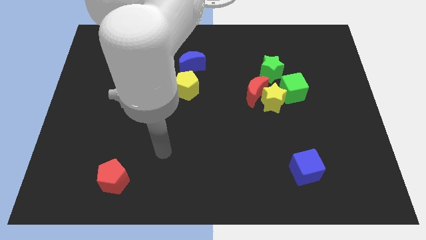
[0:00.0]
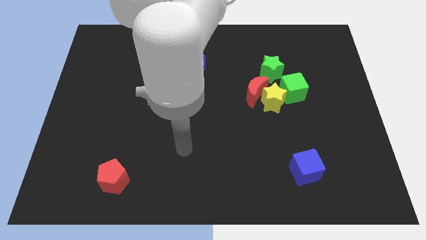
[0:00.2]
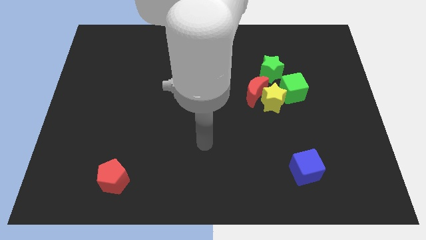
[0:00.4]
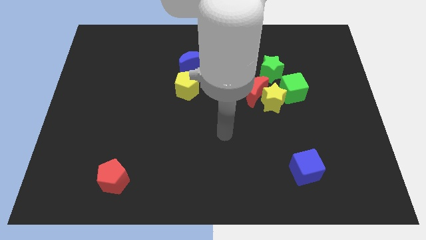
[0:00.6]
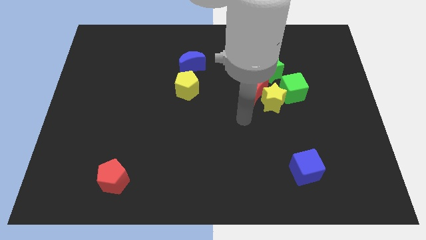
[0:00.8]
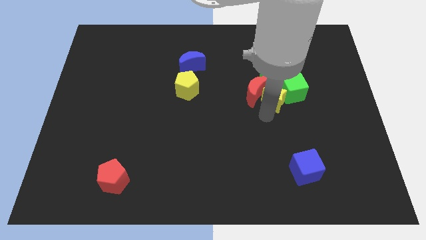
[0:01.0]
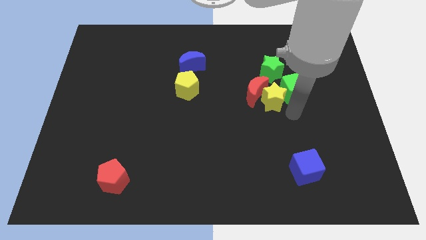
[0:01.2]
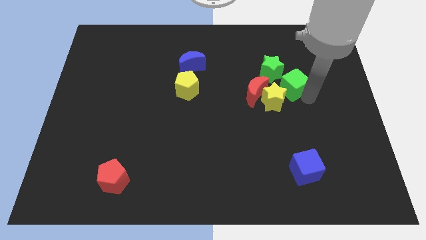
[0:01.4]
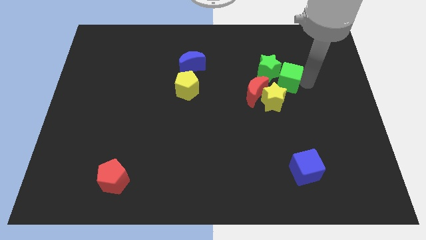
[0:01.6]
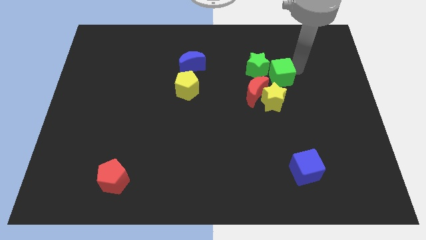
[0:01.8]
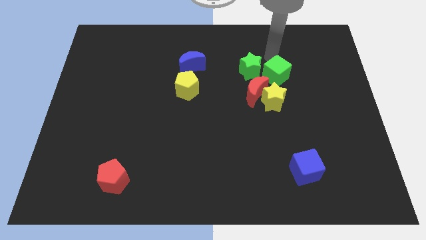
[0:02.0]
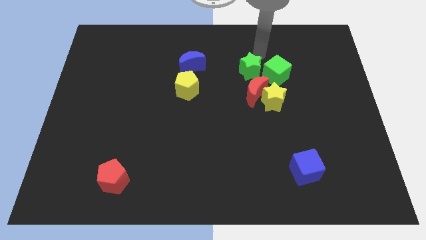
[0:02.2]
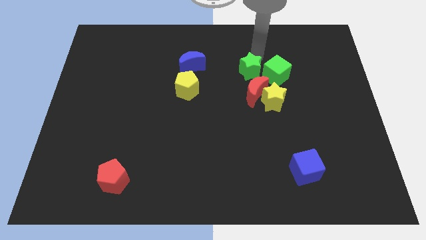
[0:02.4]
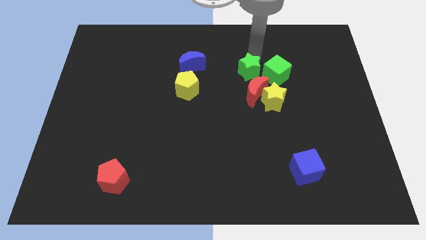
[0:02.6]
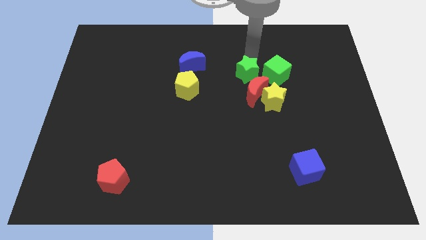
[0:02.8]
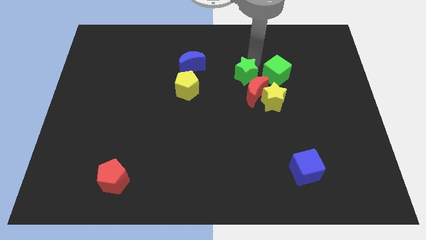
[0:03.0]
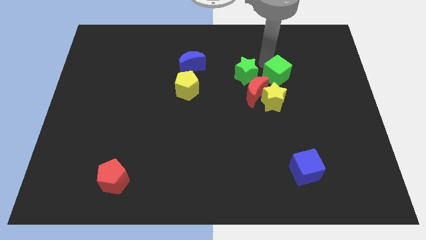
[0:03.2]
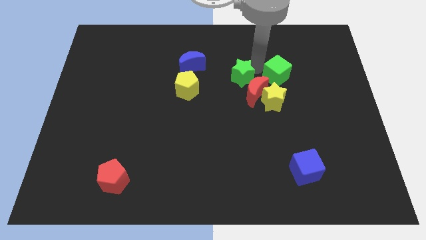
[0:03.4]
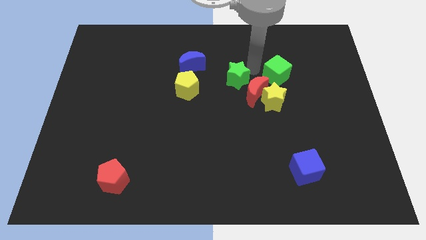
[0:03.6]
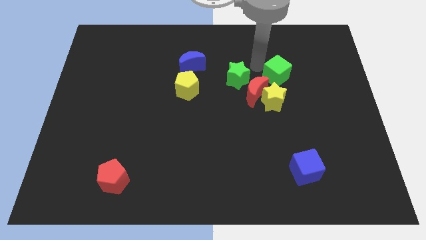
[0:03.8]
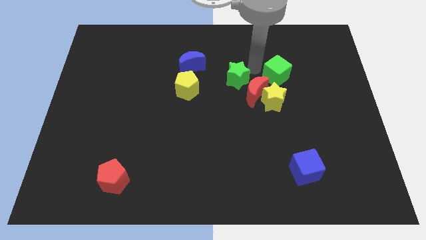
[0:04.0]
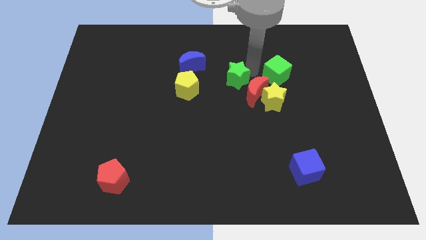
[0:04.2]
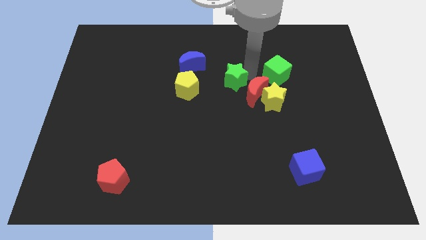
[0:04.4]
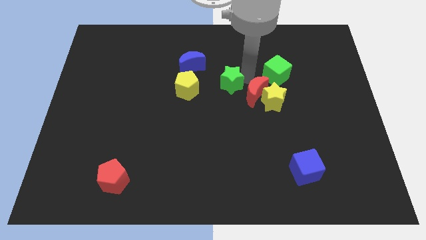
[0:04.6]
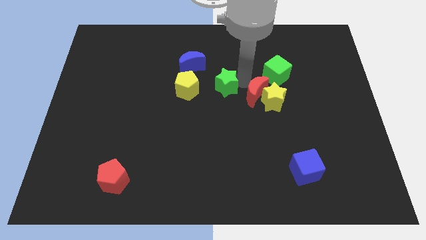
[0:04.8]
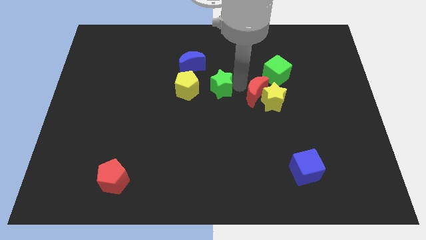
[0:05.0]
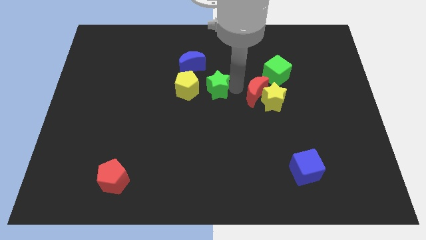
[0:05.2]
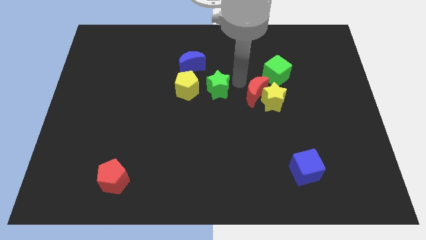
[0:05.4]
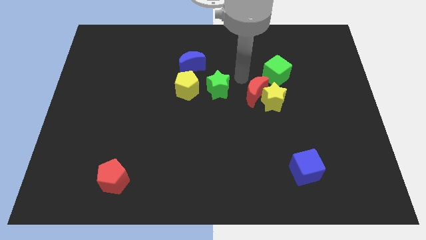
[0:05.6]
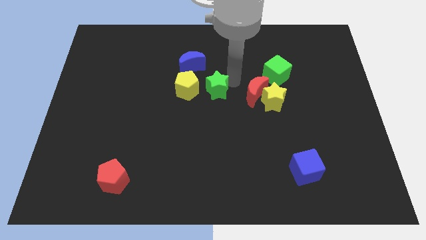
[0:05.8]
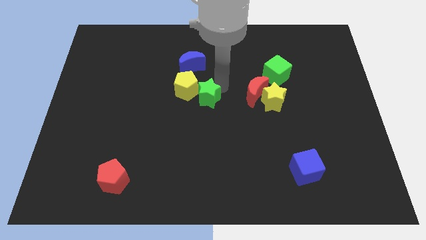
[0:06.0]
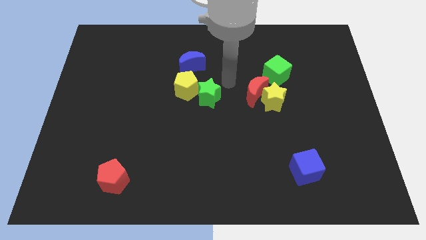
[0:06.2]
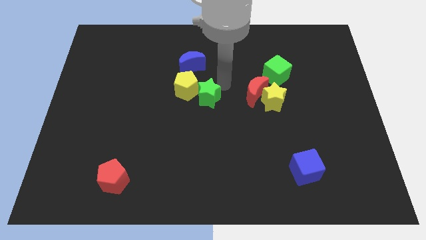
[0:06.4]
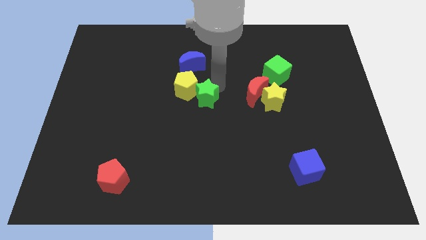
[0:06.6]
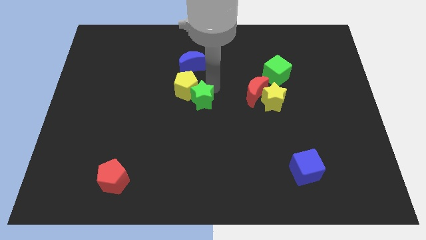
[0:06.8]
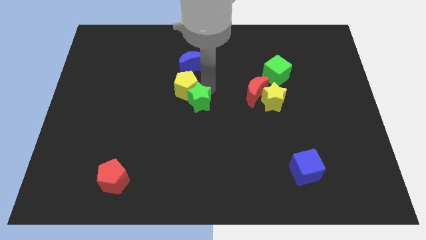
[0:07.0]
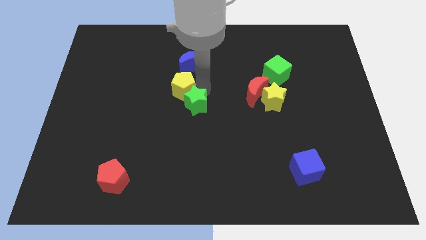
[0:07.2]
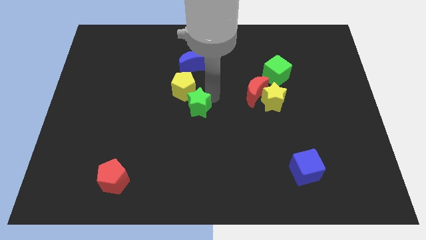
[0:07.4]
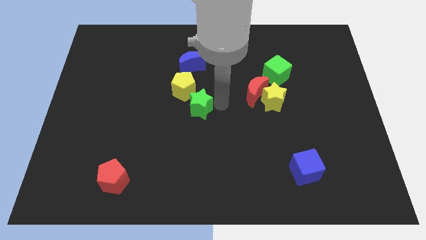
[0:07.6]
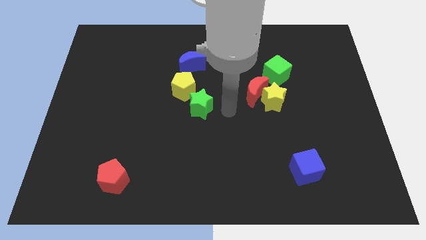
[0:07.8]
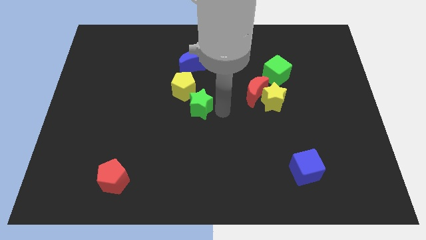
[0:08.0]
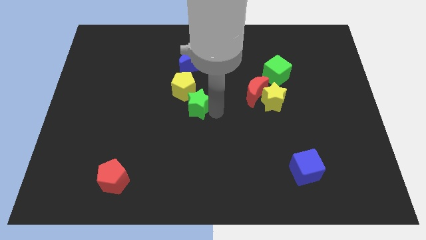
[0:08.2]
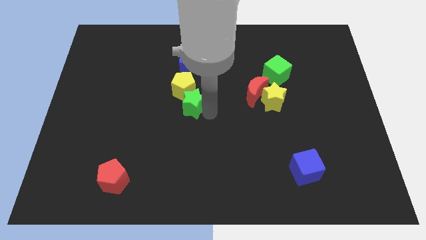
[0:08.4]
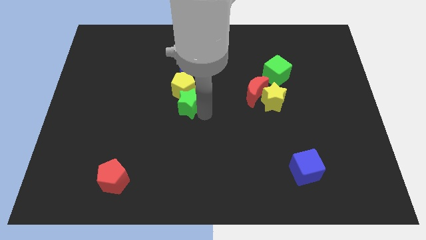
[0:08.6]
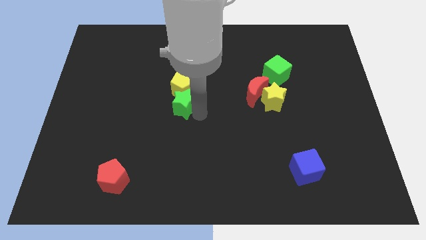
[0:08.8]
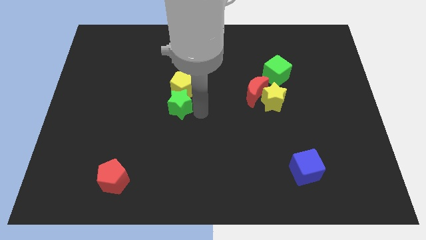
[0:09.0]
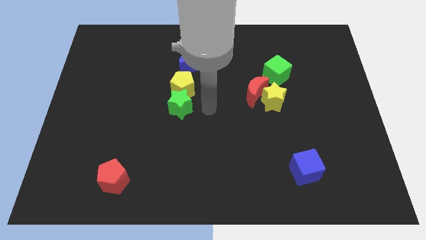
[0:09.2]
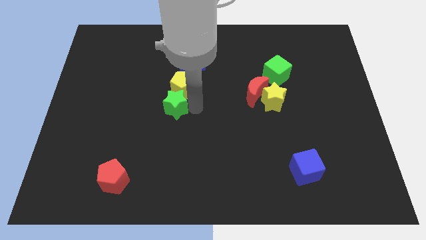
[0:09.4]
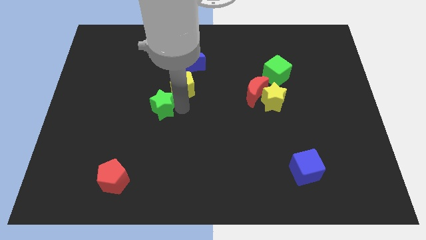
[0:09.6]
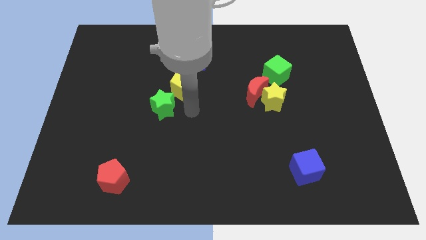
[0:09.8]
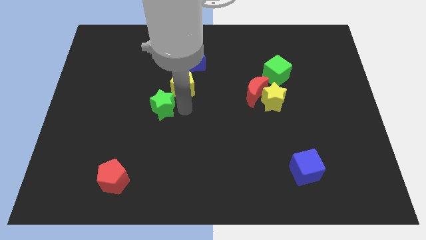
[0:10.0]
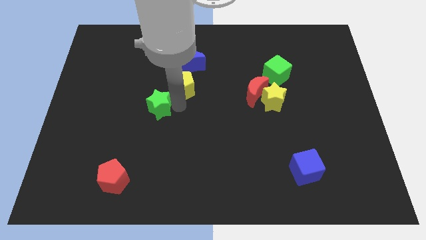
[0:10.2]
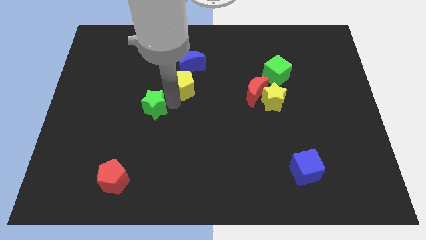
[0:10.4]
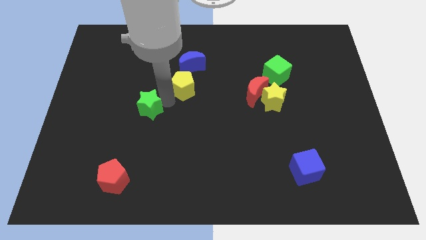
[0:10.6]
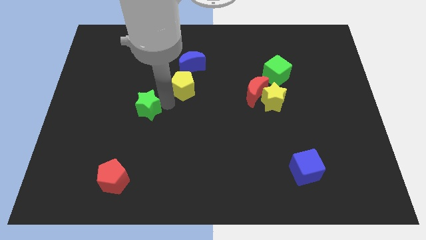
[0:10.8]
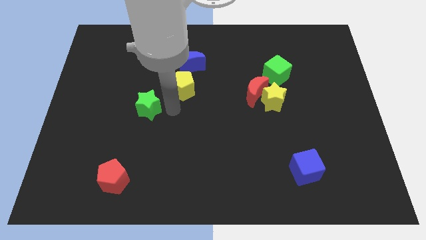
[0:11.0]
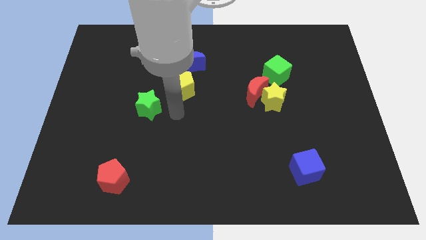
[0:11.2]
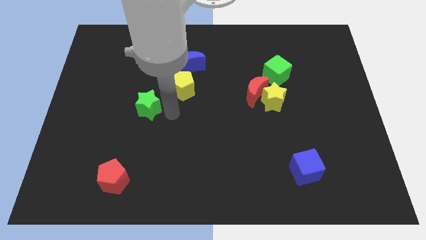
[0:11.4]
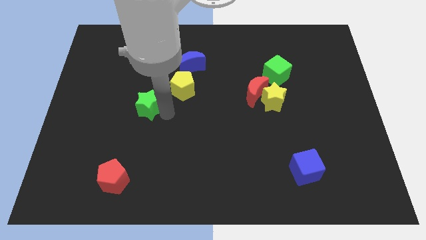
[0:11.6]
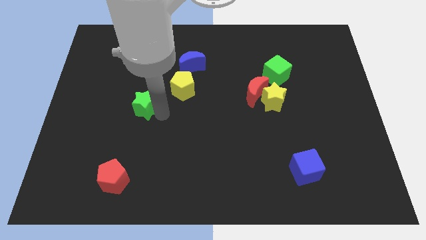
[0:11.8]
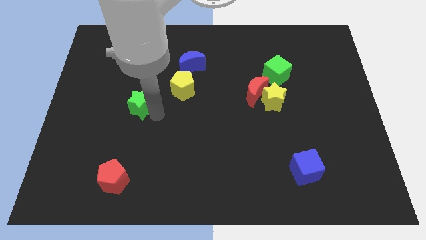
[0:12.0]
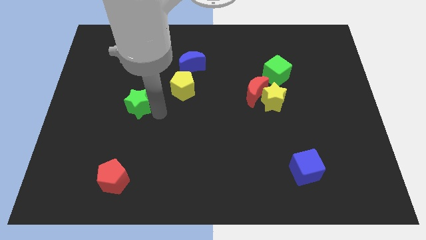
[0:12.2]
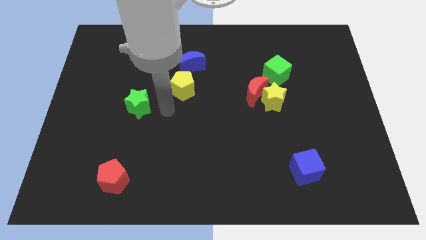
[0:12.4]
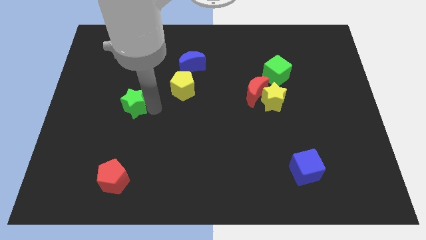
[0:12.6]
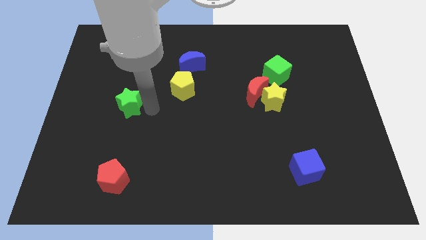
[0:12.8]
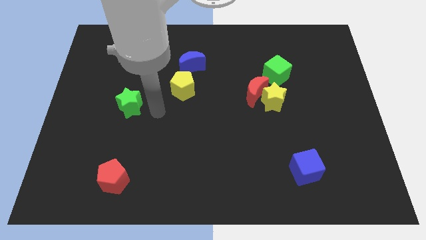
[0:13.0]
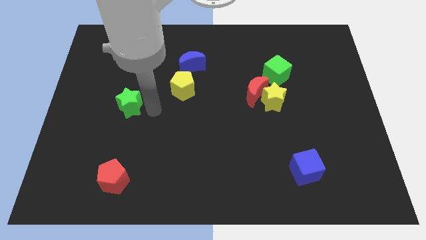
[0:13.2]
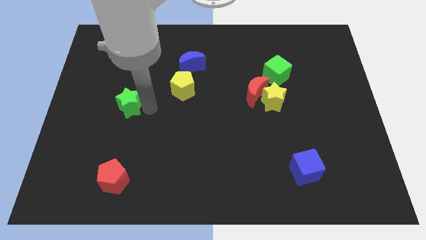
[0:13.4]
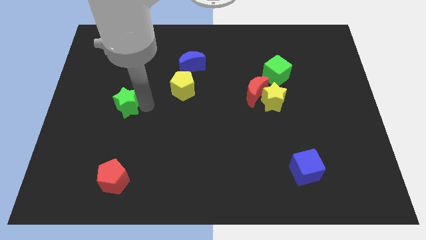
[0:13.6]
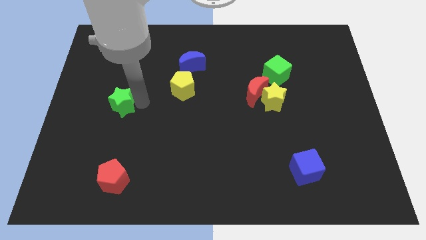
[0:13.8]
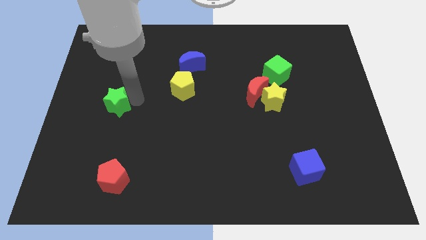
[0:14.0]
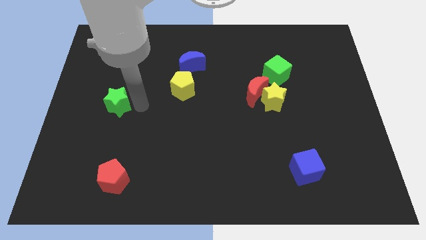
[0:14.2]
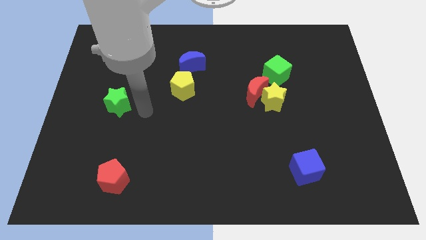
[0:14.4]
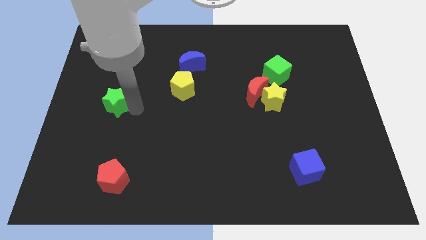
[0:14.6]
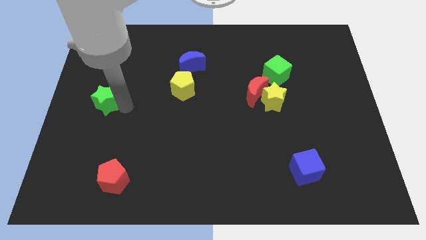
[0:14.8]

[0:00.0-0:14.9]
push the green star to the center left
